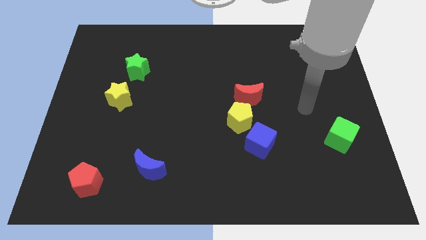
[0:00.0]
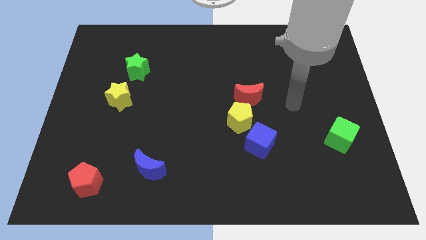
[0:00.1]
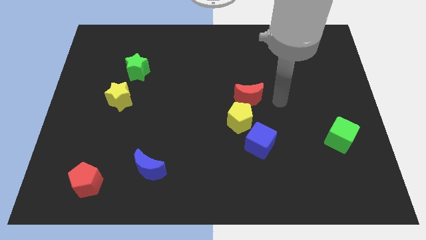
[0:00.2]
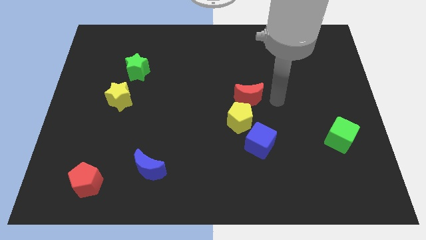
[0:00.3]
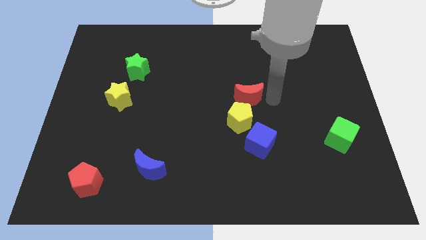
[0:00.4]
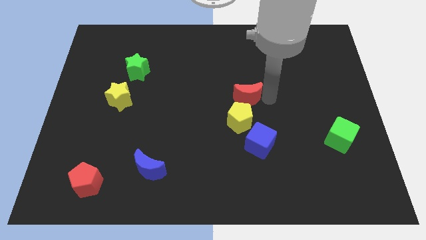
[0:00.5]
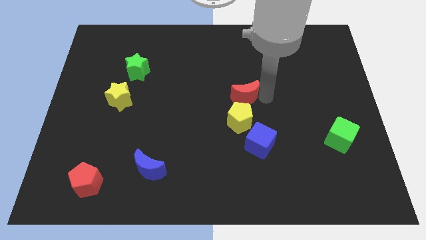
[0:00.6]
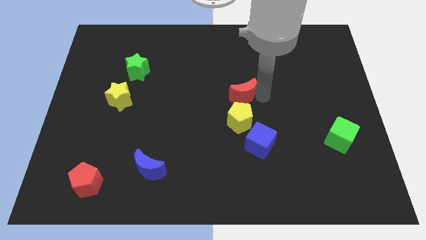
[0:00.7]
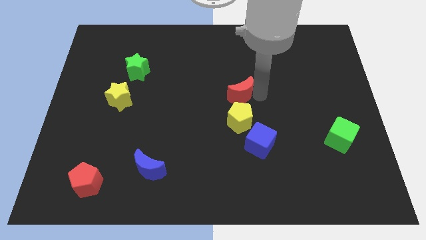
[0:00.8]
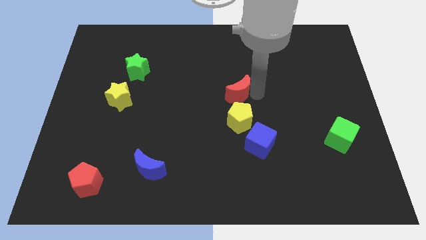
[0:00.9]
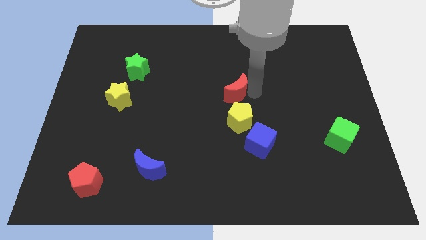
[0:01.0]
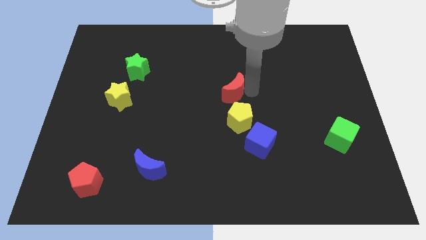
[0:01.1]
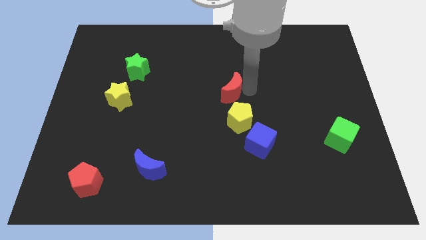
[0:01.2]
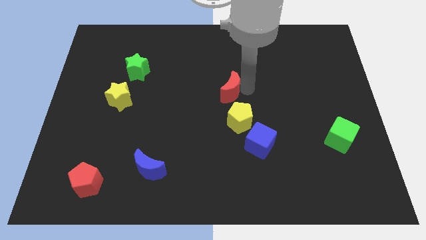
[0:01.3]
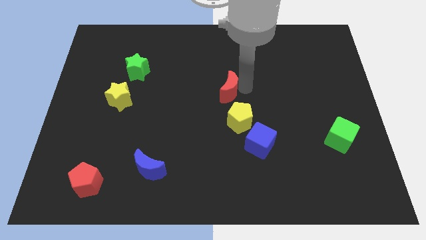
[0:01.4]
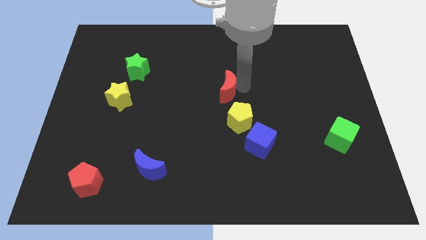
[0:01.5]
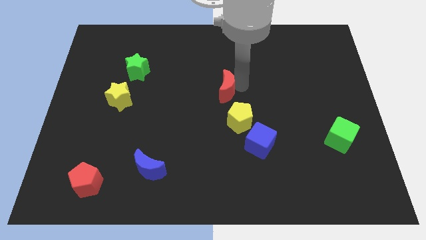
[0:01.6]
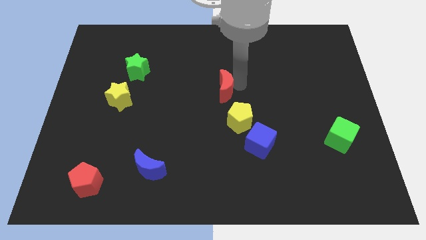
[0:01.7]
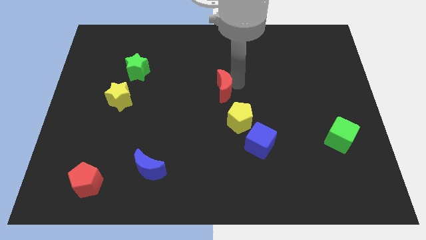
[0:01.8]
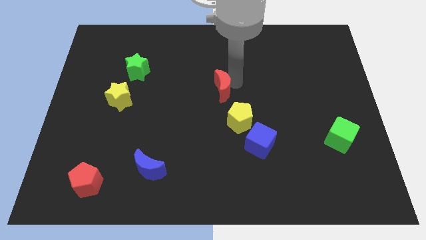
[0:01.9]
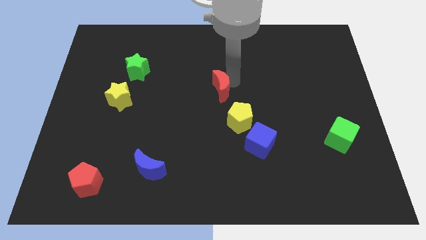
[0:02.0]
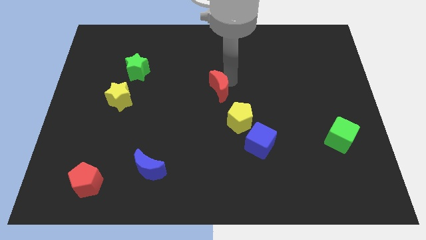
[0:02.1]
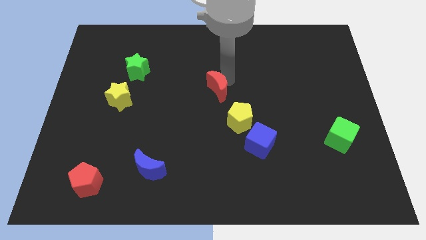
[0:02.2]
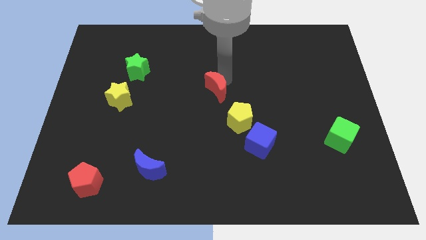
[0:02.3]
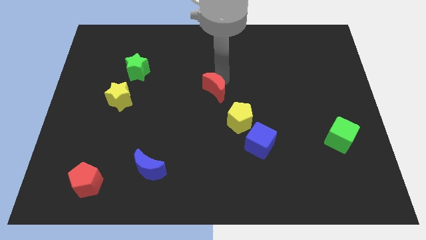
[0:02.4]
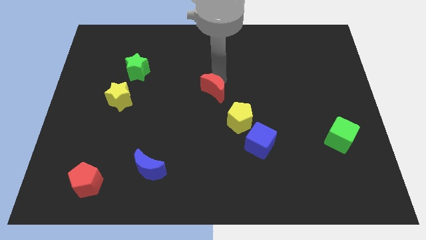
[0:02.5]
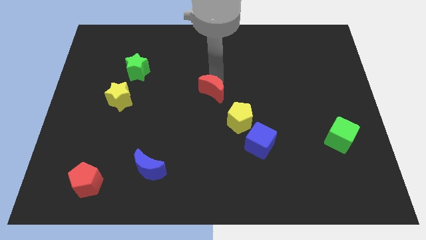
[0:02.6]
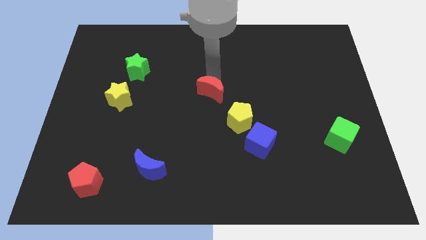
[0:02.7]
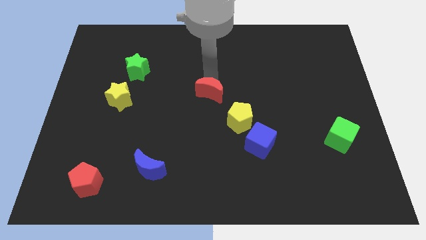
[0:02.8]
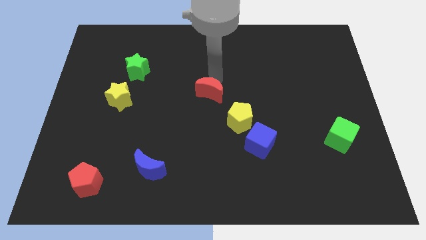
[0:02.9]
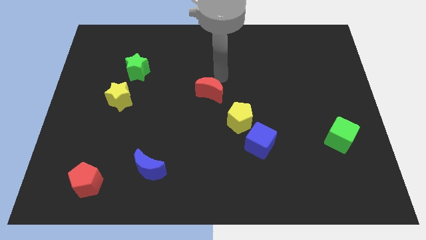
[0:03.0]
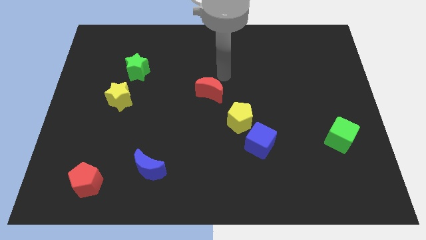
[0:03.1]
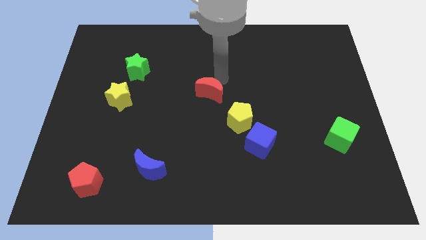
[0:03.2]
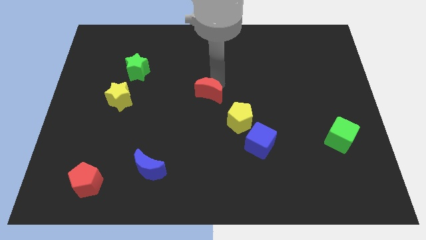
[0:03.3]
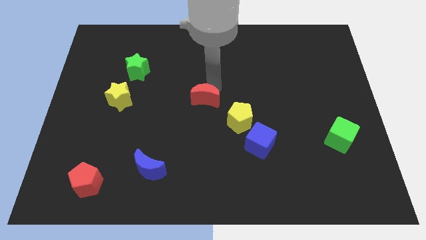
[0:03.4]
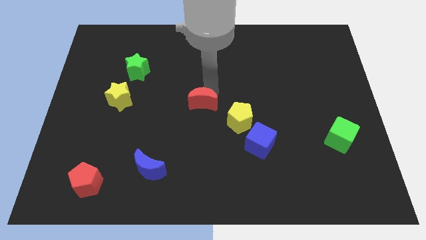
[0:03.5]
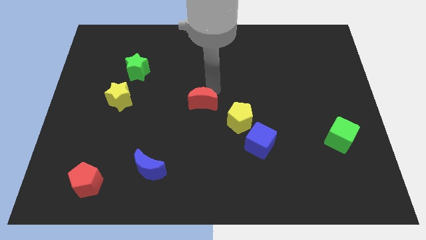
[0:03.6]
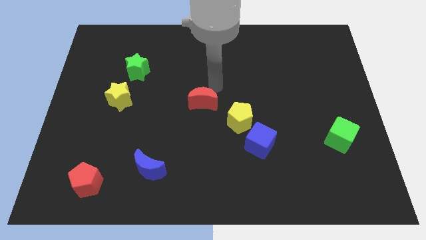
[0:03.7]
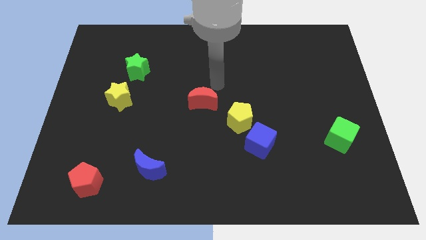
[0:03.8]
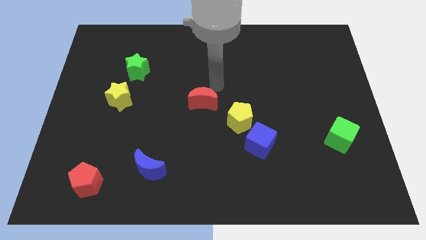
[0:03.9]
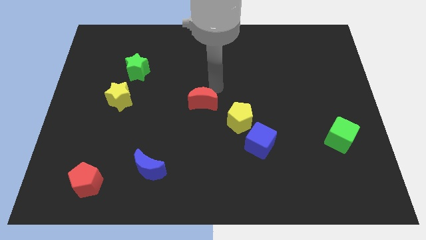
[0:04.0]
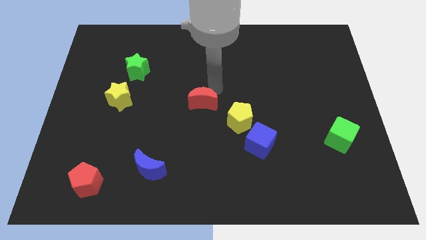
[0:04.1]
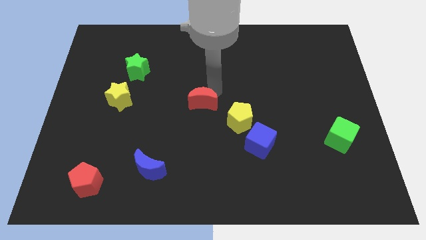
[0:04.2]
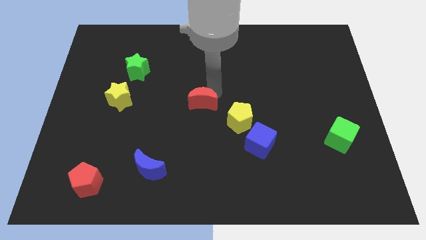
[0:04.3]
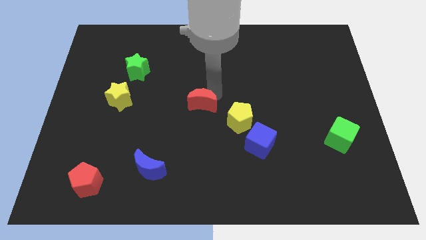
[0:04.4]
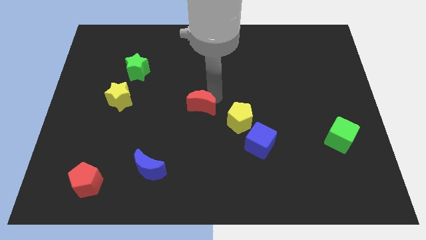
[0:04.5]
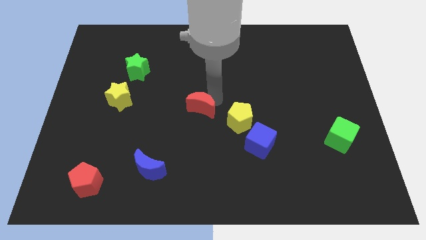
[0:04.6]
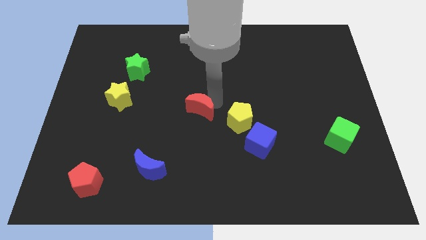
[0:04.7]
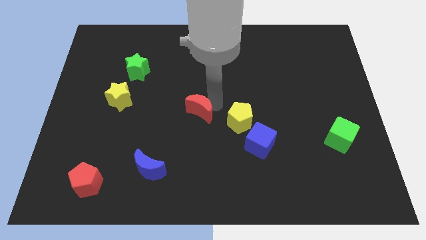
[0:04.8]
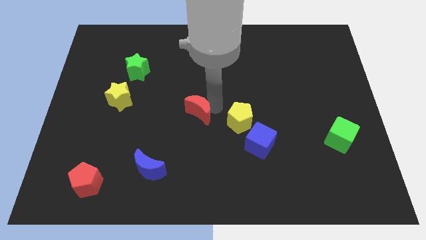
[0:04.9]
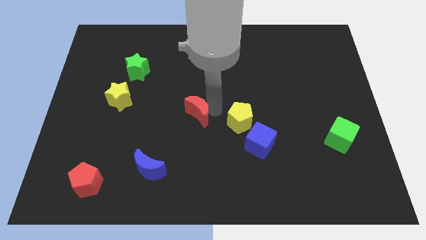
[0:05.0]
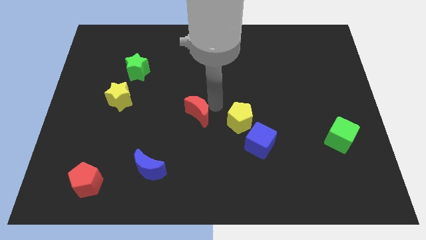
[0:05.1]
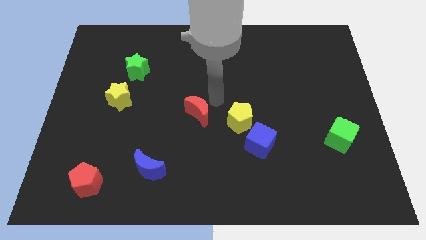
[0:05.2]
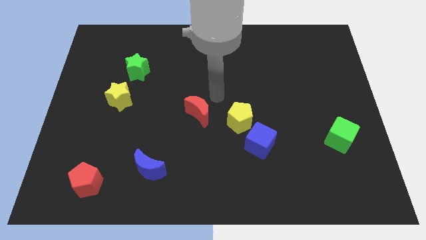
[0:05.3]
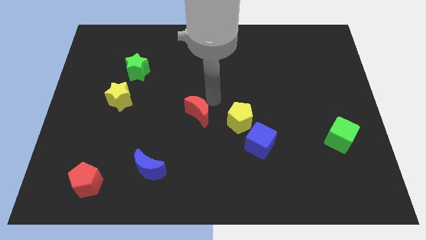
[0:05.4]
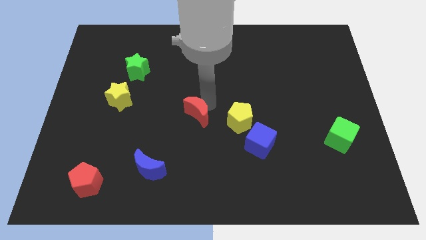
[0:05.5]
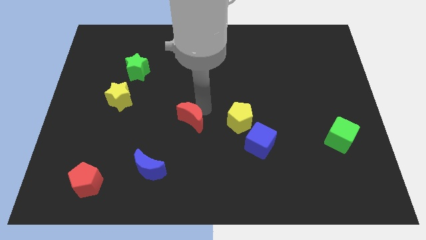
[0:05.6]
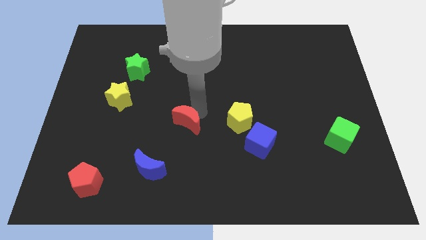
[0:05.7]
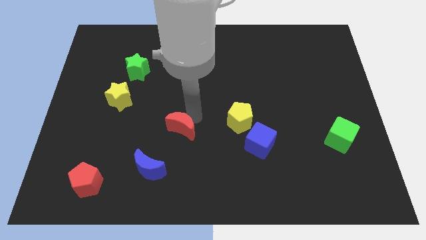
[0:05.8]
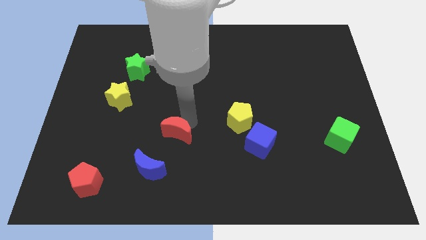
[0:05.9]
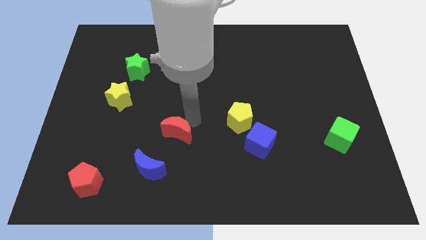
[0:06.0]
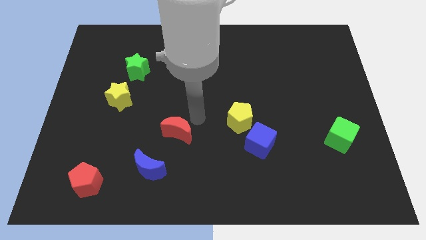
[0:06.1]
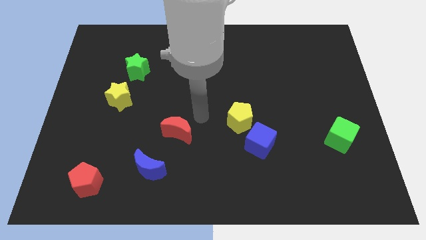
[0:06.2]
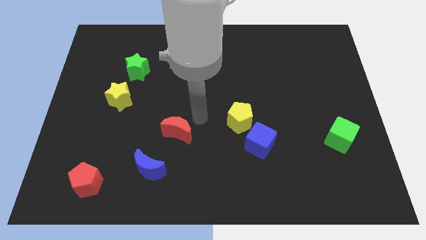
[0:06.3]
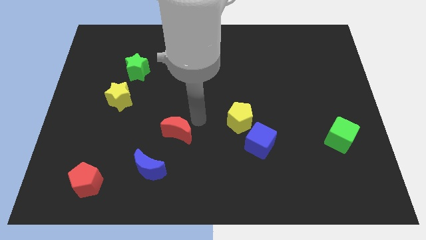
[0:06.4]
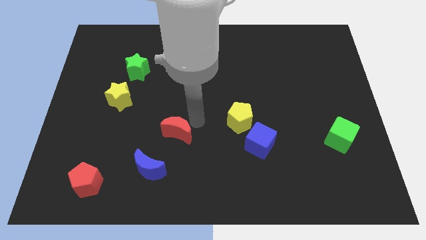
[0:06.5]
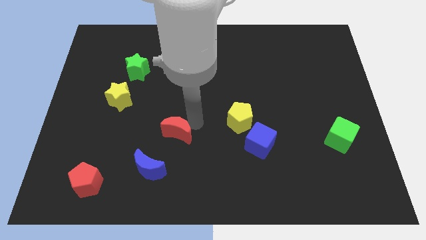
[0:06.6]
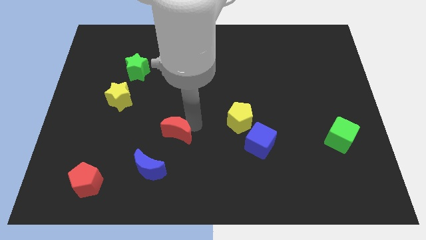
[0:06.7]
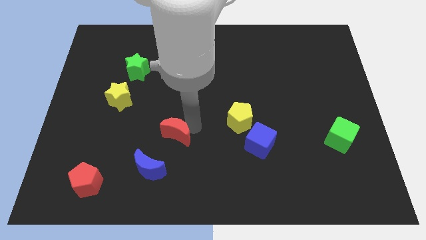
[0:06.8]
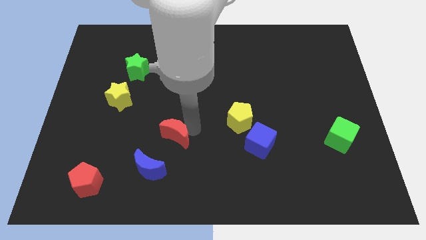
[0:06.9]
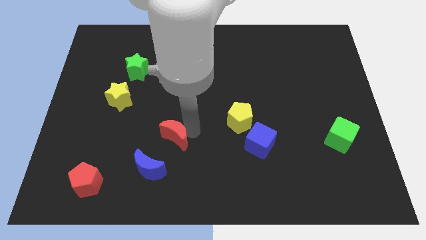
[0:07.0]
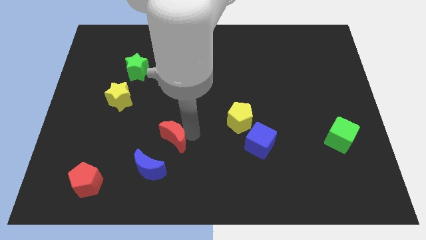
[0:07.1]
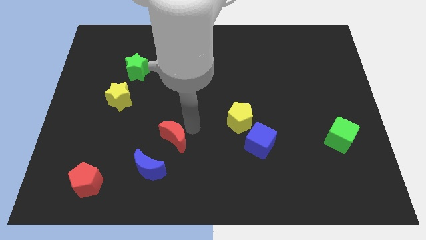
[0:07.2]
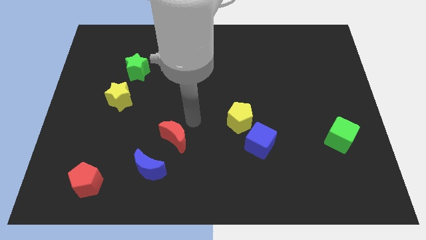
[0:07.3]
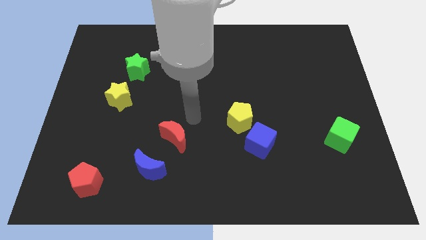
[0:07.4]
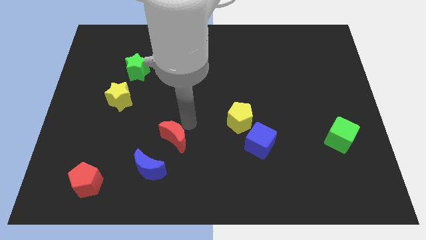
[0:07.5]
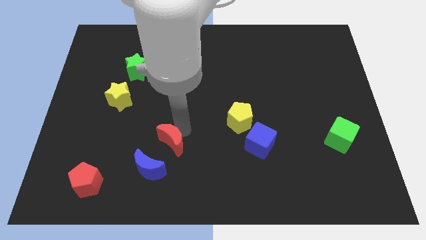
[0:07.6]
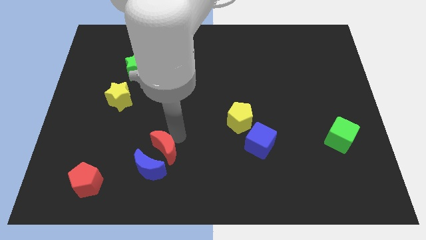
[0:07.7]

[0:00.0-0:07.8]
put the red moon close to the blue moon

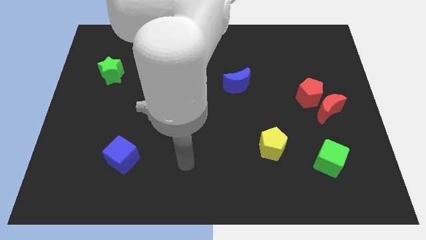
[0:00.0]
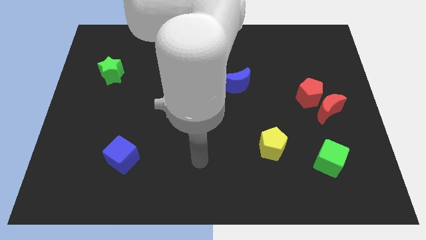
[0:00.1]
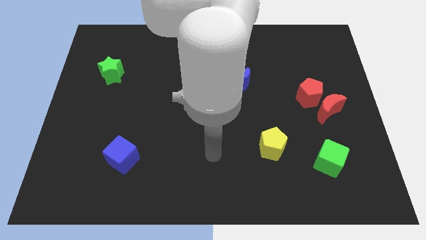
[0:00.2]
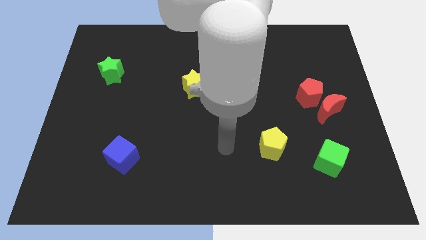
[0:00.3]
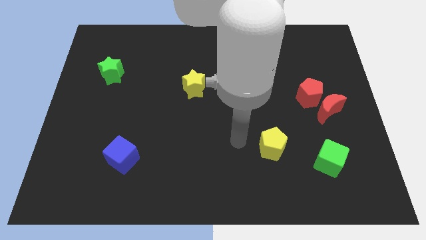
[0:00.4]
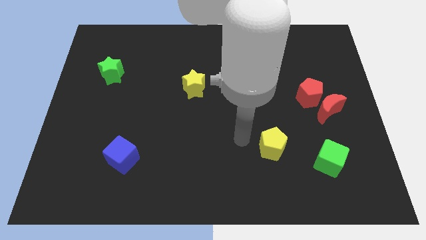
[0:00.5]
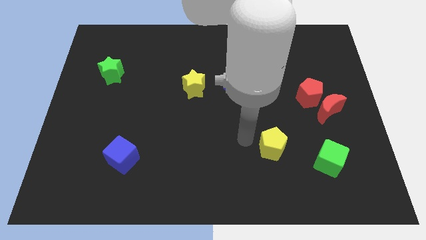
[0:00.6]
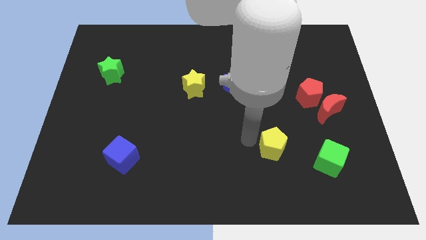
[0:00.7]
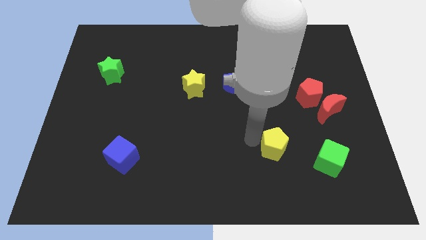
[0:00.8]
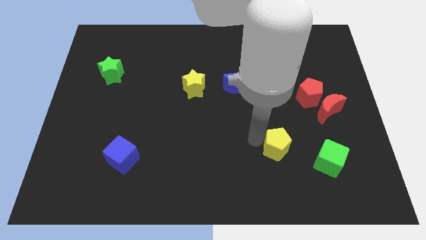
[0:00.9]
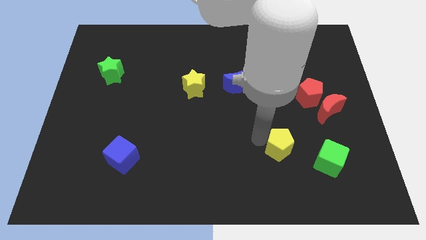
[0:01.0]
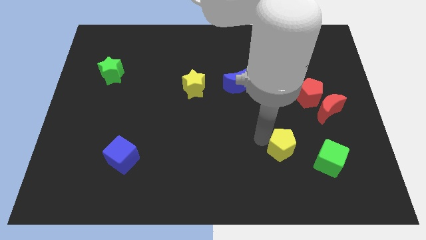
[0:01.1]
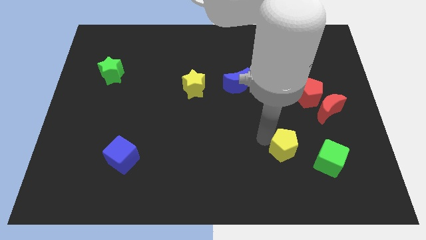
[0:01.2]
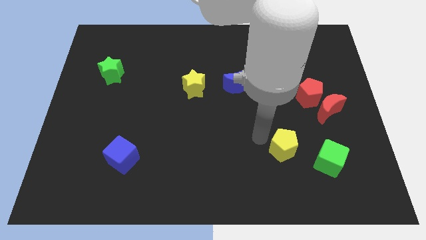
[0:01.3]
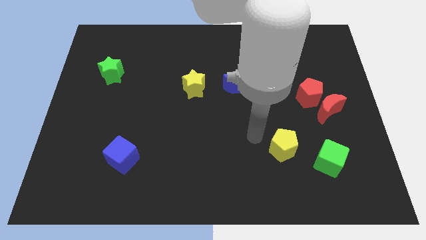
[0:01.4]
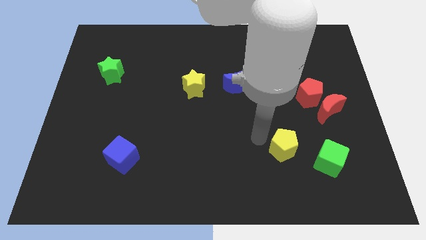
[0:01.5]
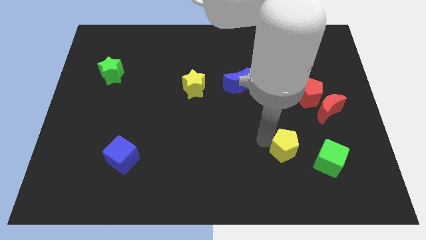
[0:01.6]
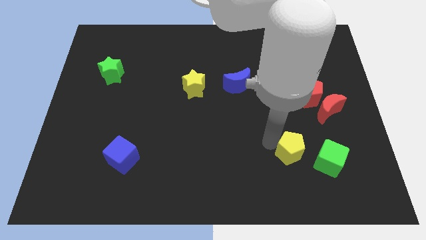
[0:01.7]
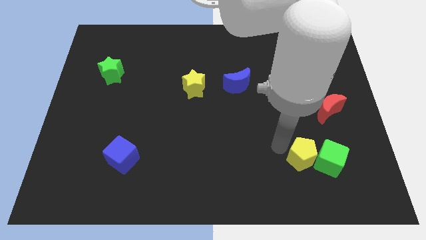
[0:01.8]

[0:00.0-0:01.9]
move the yellow pentagon towards the green cube
